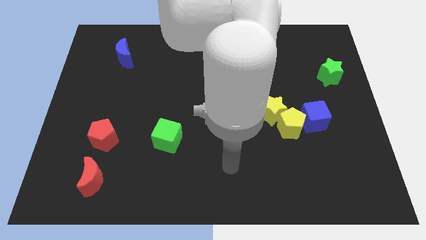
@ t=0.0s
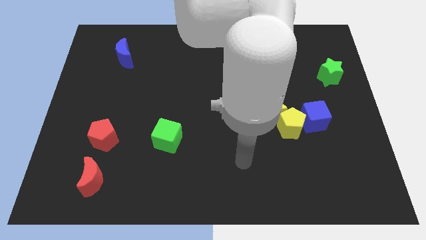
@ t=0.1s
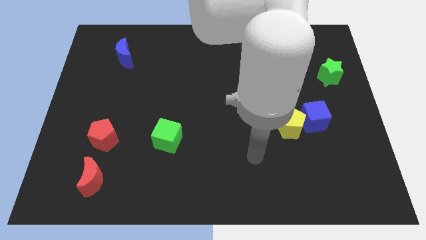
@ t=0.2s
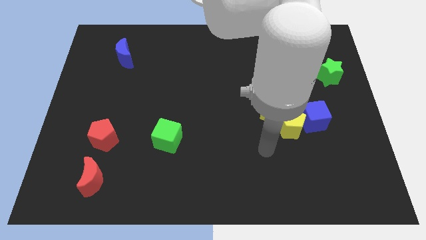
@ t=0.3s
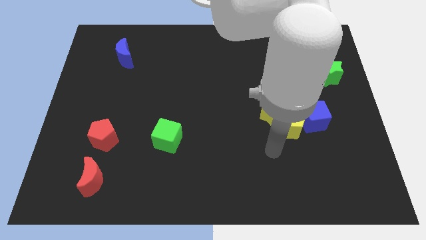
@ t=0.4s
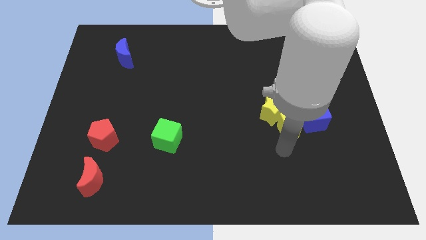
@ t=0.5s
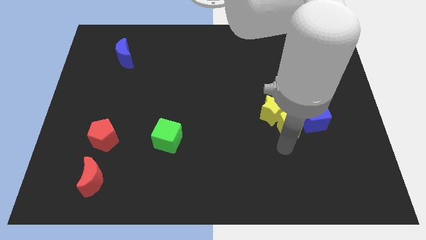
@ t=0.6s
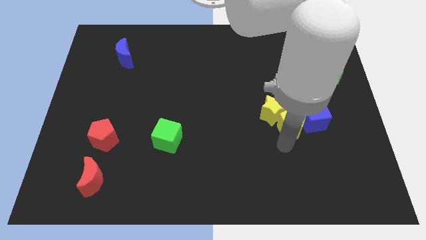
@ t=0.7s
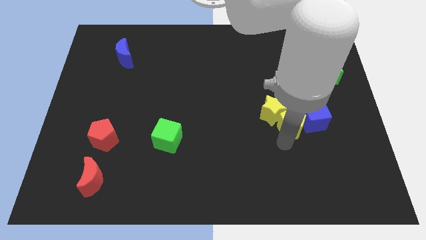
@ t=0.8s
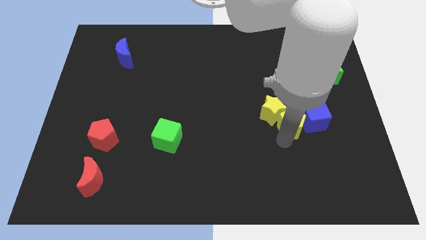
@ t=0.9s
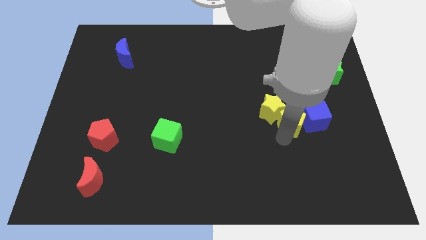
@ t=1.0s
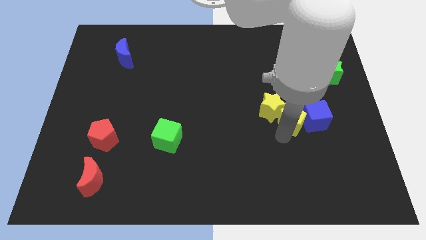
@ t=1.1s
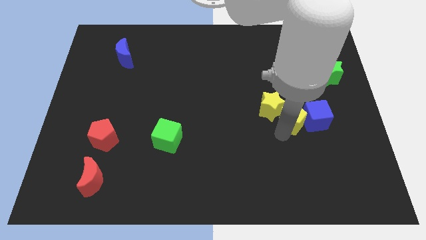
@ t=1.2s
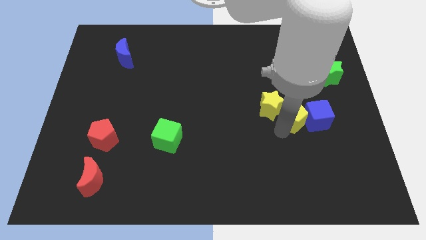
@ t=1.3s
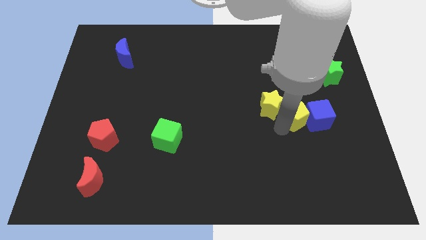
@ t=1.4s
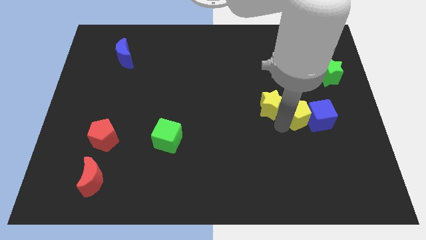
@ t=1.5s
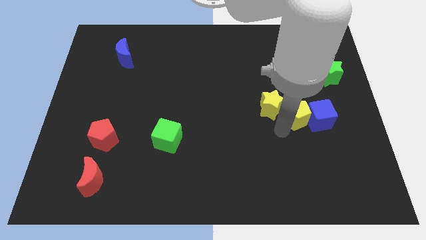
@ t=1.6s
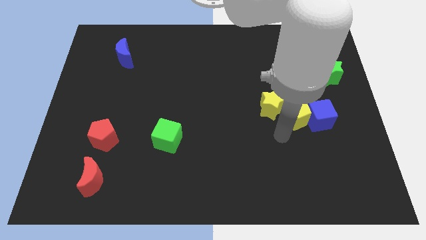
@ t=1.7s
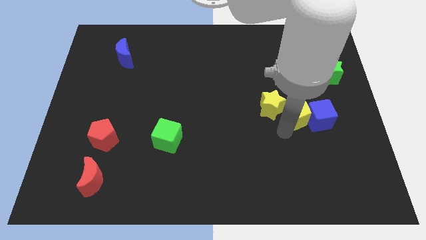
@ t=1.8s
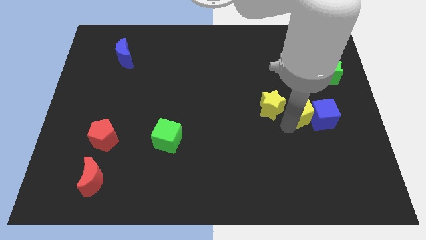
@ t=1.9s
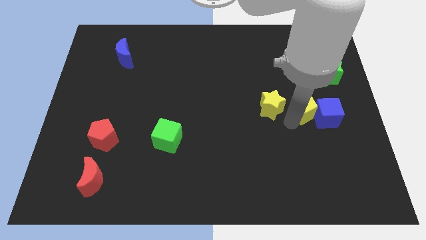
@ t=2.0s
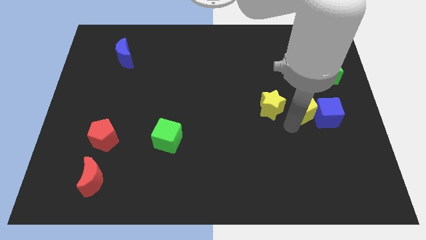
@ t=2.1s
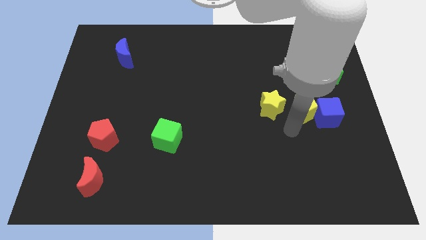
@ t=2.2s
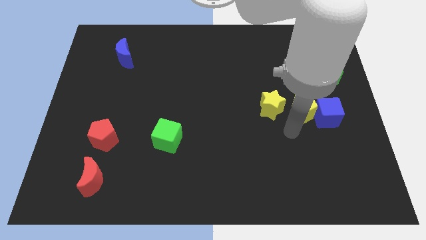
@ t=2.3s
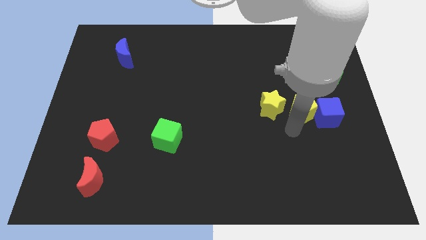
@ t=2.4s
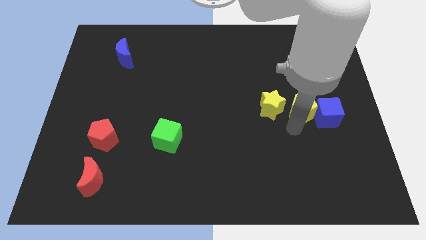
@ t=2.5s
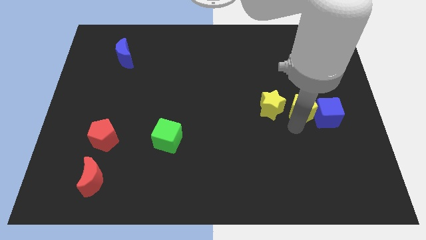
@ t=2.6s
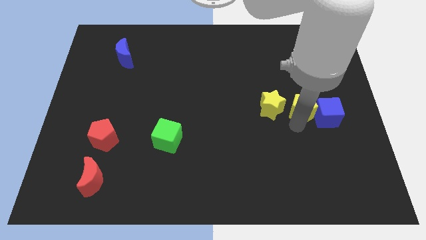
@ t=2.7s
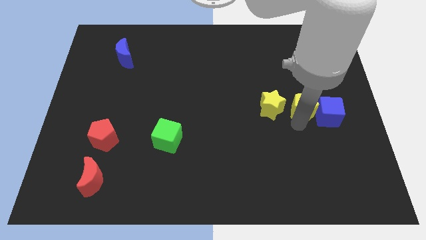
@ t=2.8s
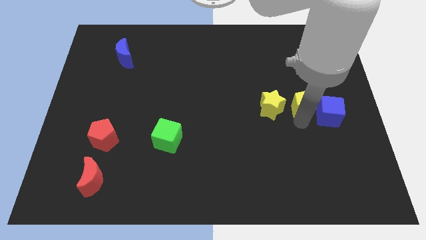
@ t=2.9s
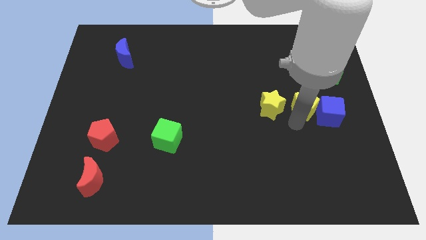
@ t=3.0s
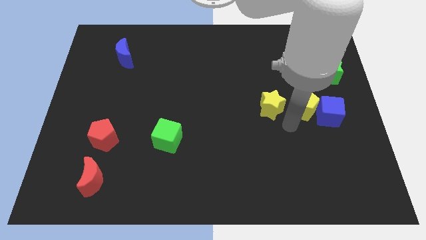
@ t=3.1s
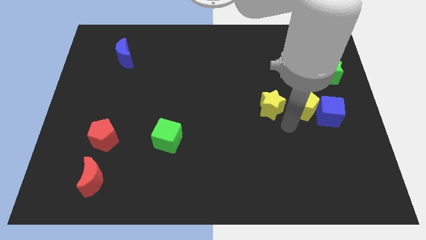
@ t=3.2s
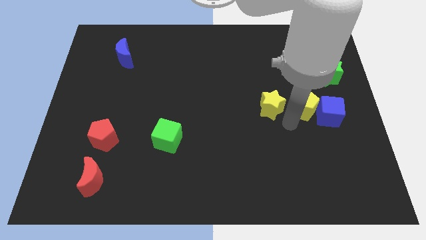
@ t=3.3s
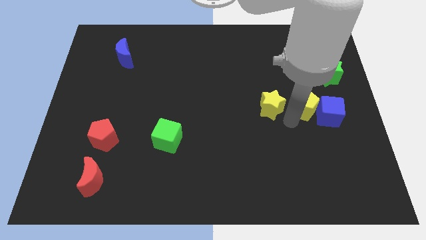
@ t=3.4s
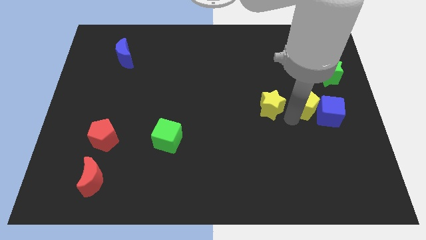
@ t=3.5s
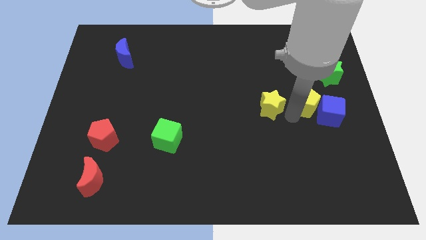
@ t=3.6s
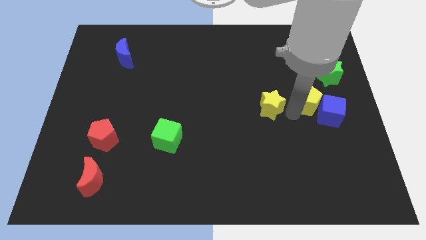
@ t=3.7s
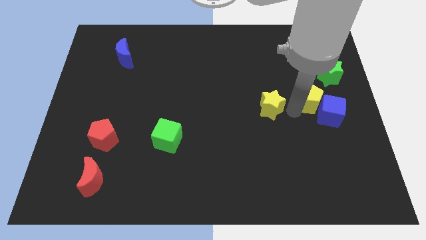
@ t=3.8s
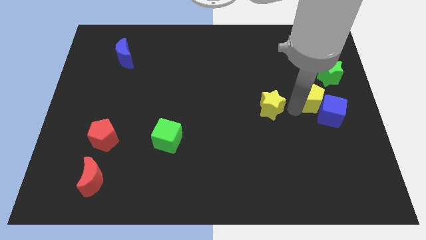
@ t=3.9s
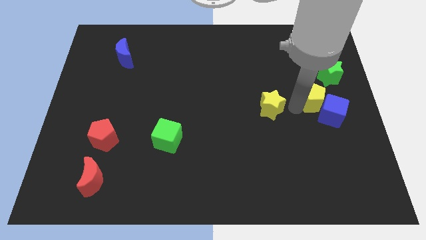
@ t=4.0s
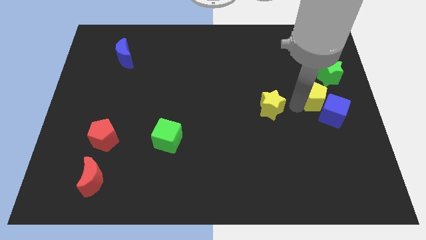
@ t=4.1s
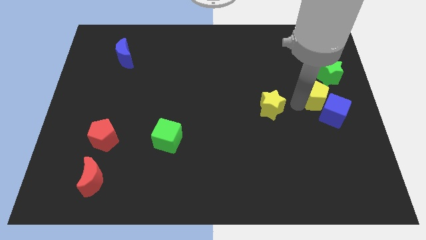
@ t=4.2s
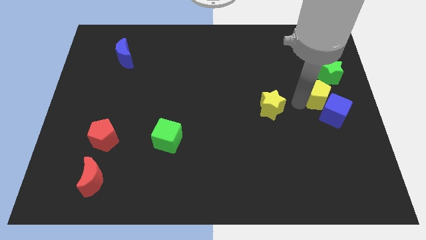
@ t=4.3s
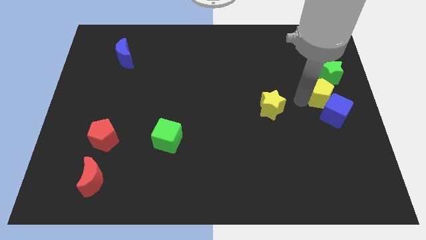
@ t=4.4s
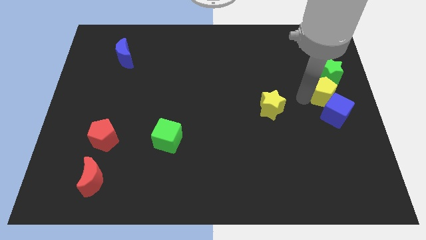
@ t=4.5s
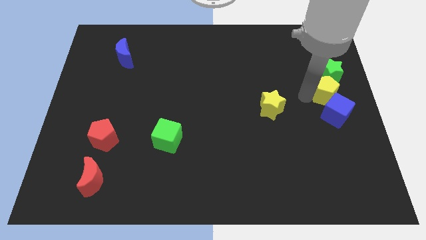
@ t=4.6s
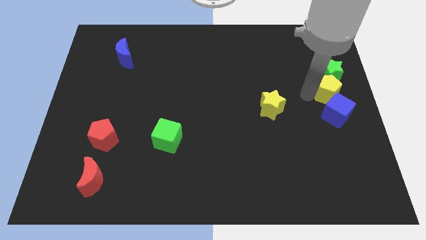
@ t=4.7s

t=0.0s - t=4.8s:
slide the yellow pentagon close to the green star

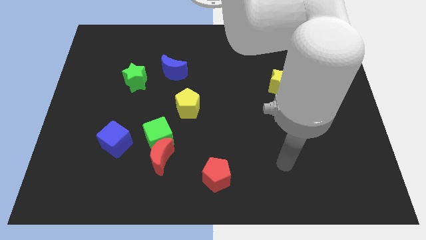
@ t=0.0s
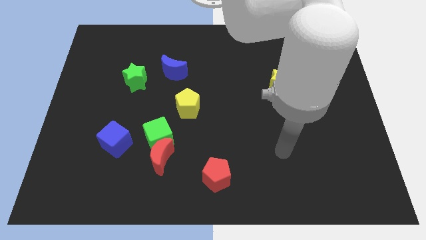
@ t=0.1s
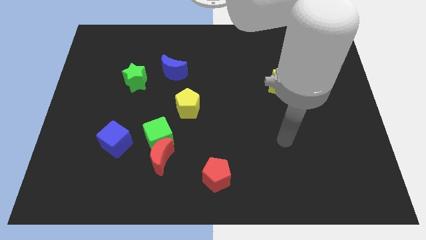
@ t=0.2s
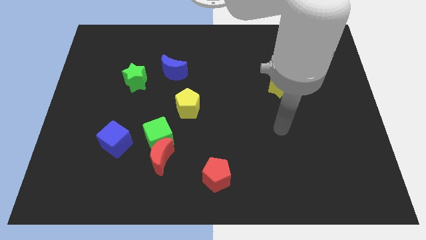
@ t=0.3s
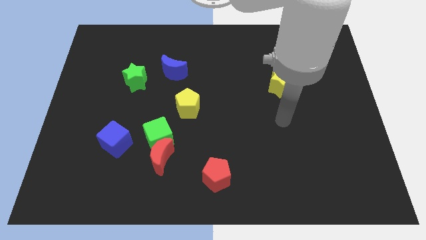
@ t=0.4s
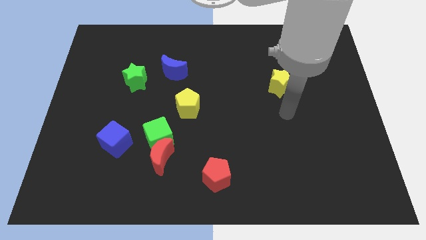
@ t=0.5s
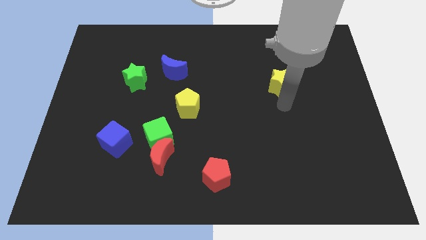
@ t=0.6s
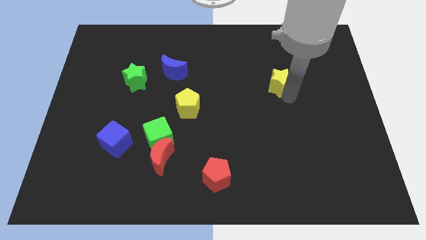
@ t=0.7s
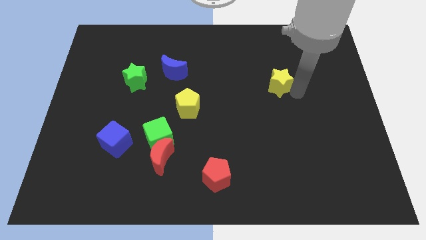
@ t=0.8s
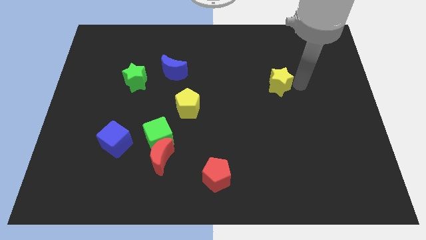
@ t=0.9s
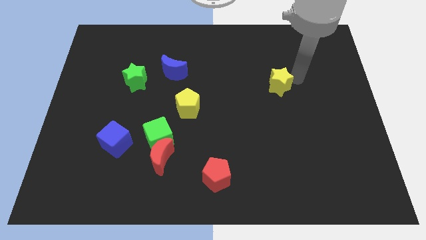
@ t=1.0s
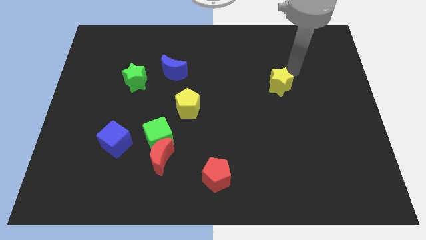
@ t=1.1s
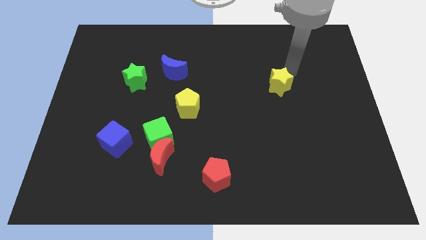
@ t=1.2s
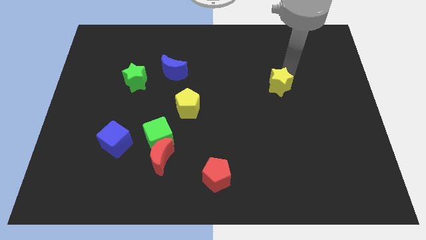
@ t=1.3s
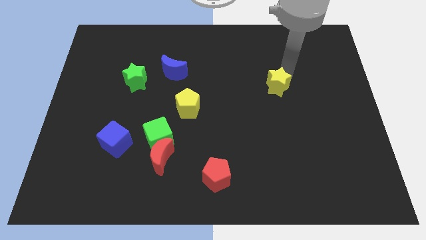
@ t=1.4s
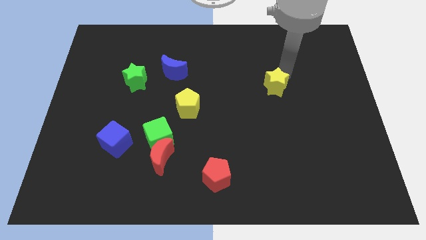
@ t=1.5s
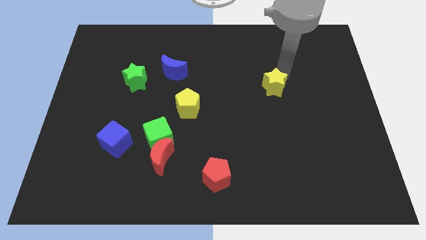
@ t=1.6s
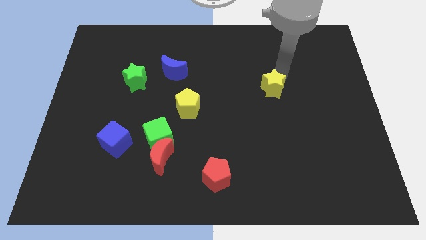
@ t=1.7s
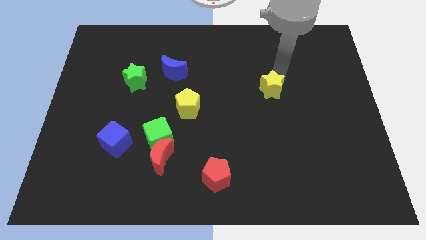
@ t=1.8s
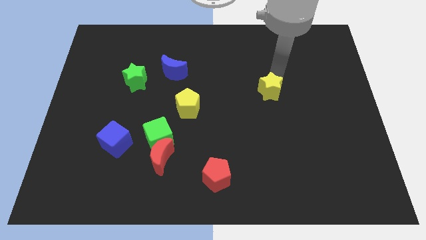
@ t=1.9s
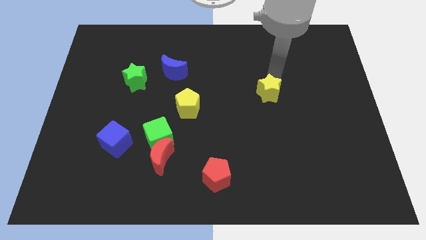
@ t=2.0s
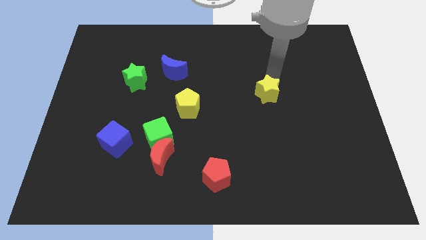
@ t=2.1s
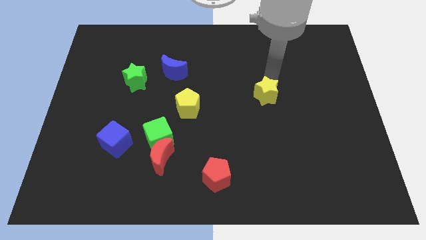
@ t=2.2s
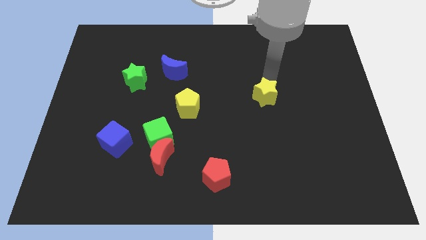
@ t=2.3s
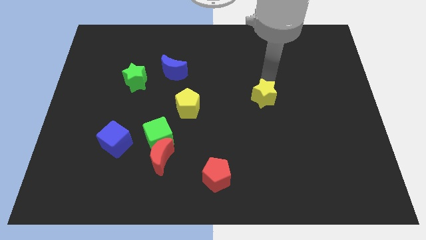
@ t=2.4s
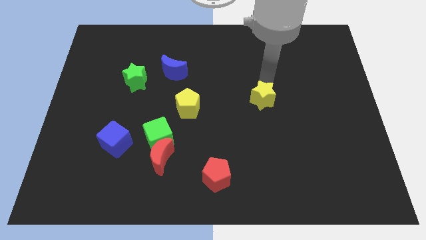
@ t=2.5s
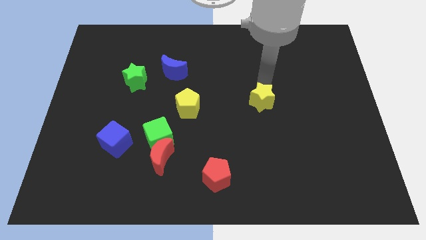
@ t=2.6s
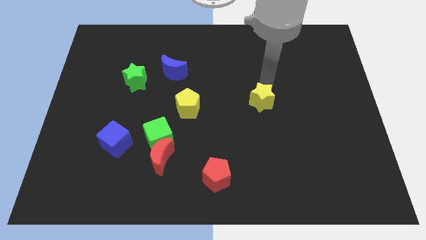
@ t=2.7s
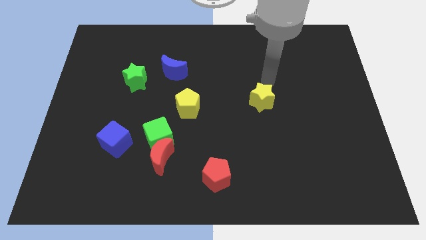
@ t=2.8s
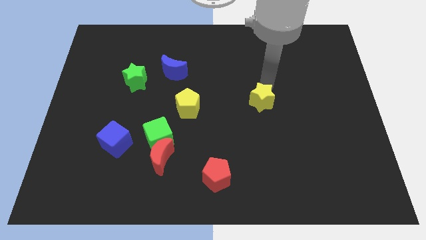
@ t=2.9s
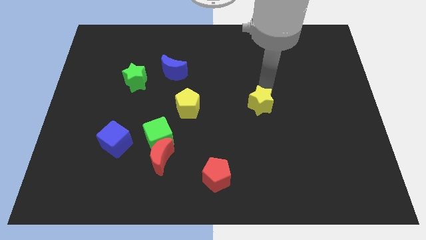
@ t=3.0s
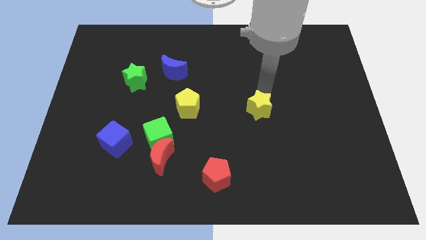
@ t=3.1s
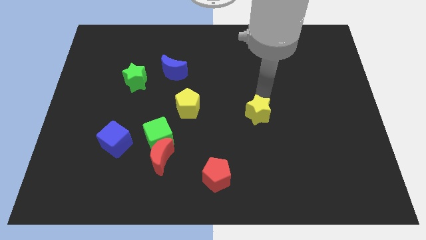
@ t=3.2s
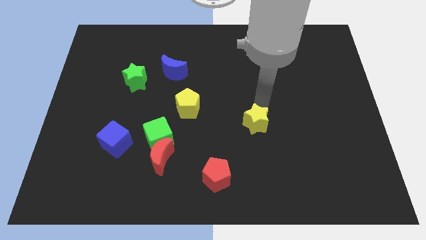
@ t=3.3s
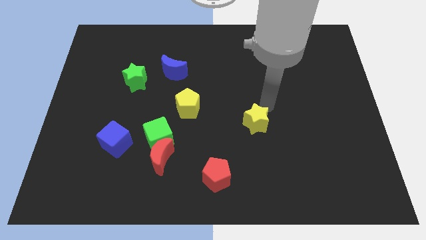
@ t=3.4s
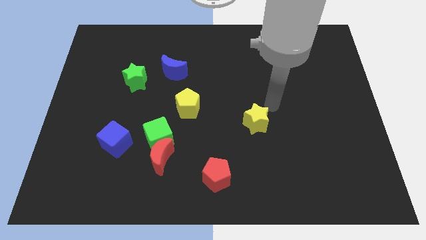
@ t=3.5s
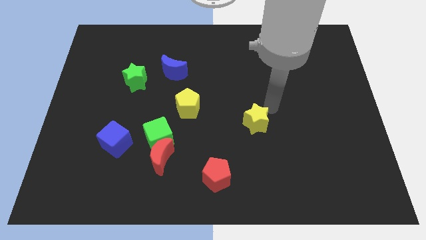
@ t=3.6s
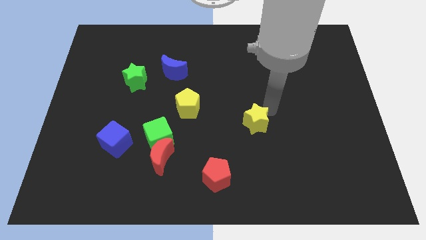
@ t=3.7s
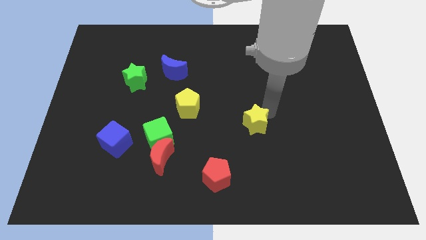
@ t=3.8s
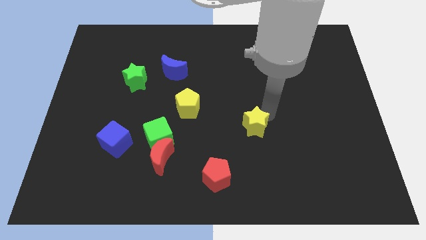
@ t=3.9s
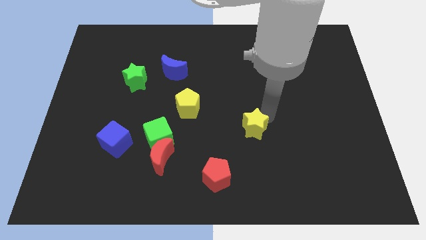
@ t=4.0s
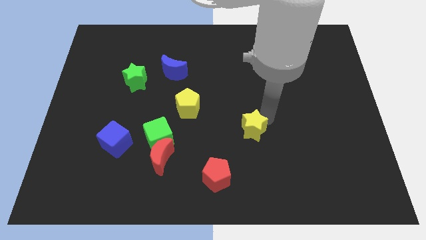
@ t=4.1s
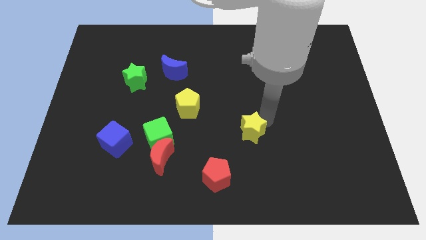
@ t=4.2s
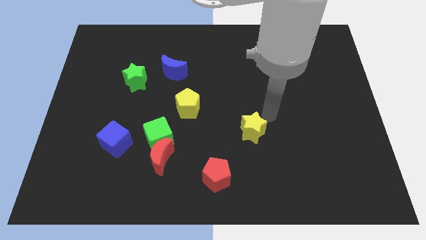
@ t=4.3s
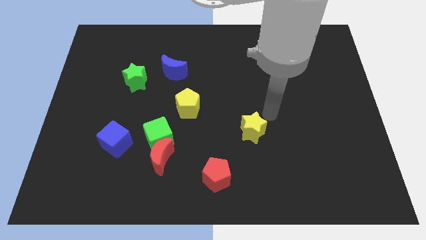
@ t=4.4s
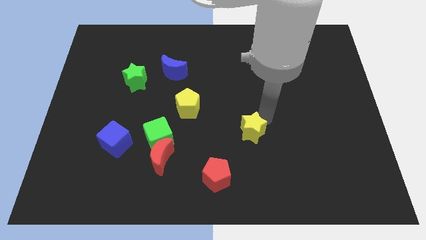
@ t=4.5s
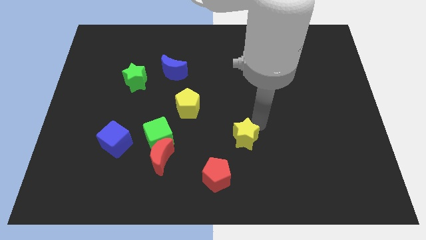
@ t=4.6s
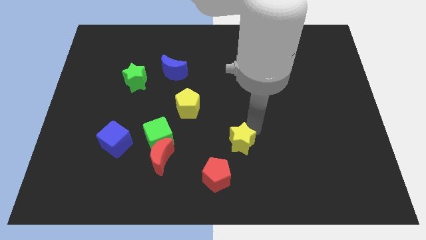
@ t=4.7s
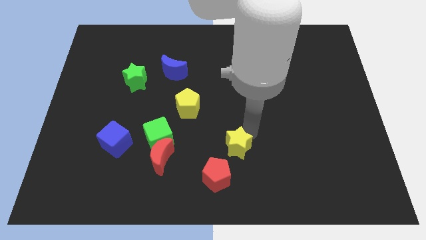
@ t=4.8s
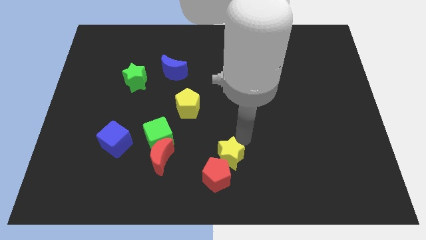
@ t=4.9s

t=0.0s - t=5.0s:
move the yellow star to the red pentagon
